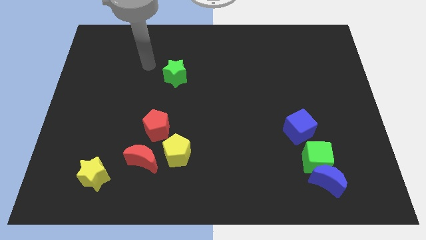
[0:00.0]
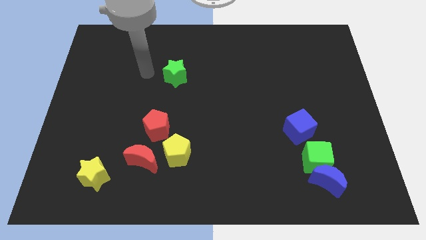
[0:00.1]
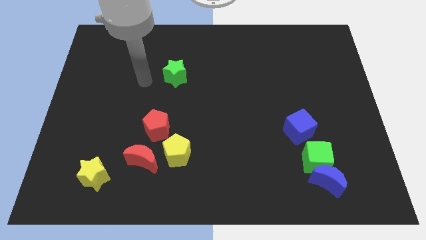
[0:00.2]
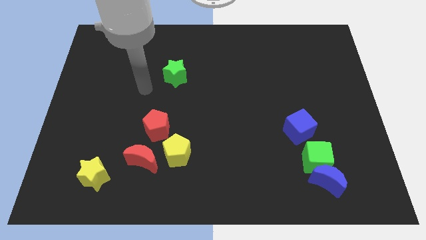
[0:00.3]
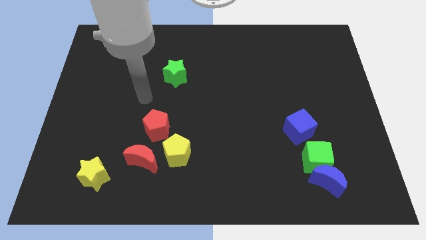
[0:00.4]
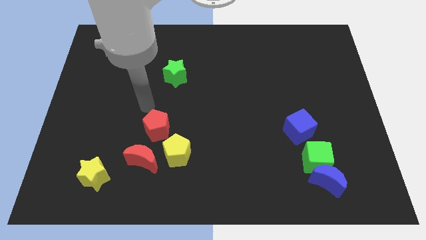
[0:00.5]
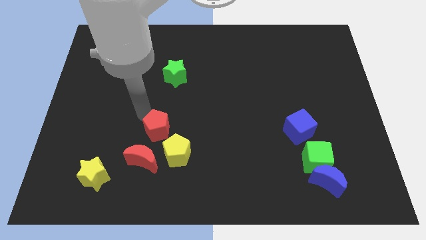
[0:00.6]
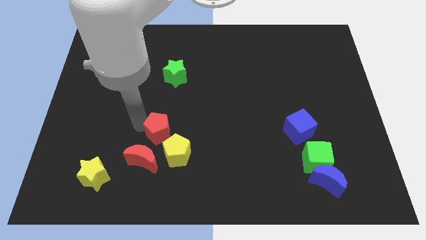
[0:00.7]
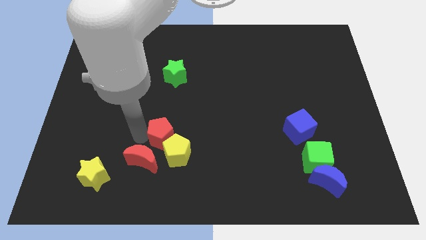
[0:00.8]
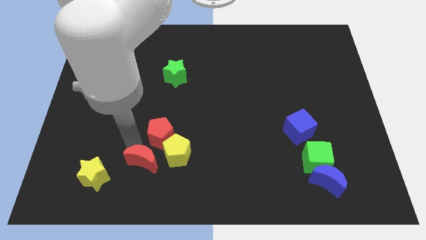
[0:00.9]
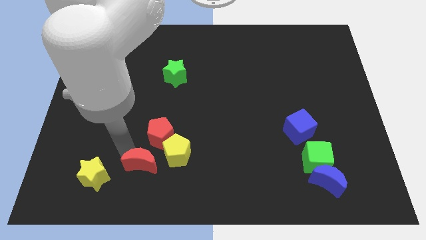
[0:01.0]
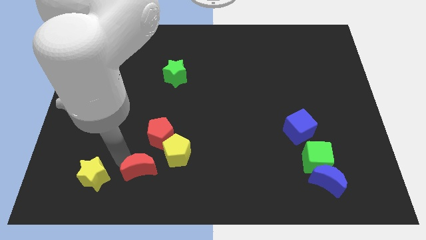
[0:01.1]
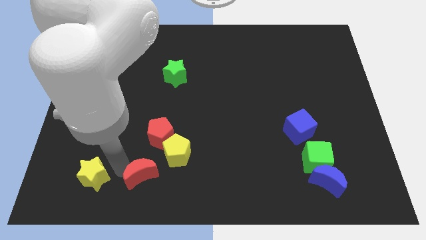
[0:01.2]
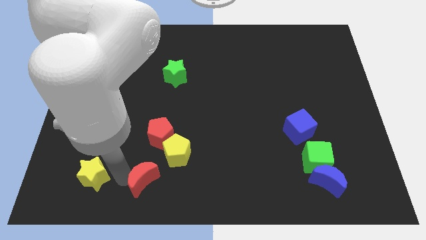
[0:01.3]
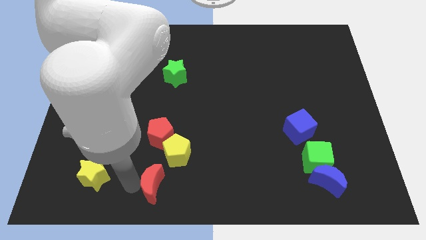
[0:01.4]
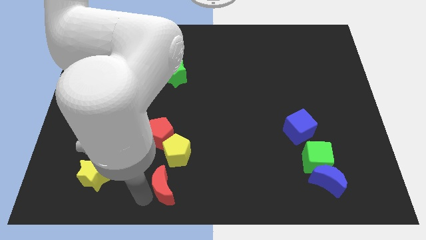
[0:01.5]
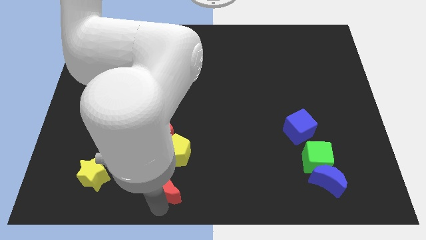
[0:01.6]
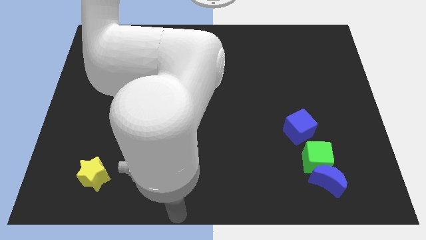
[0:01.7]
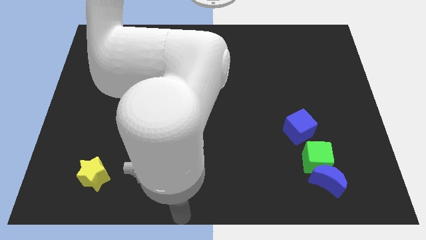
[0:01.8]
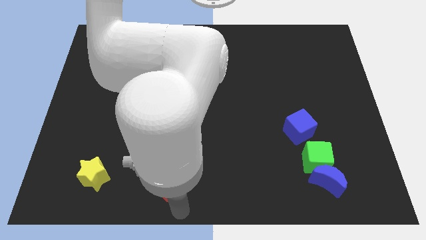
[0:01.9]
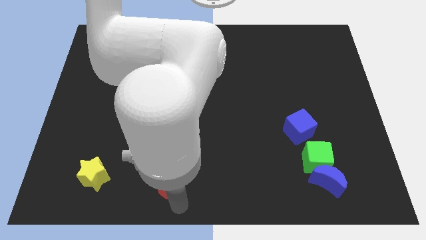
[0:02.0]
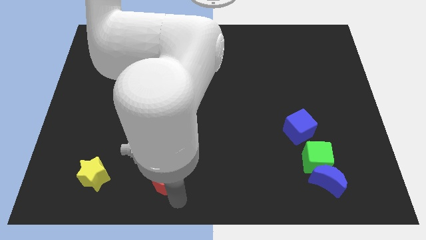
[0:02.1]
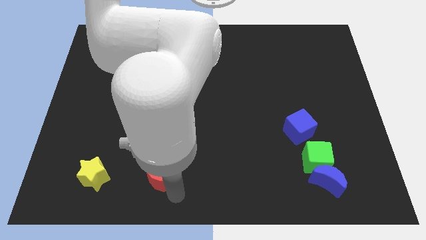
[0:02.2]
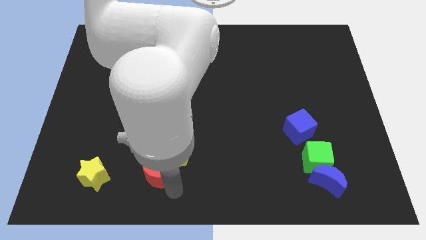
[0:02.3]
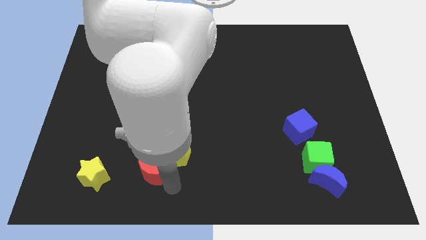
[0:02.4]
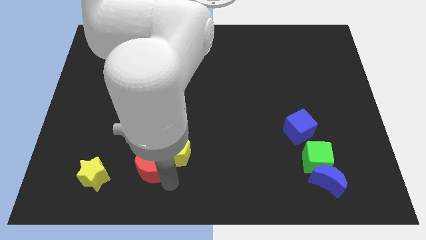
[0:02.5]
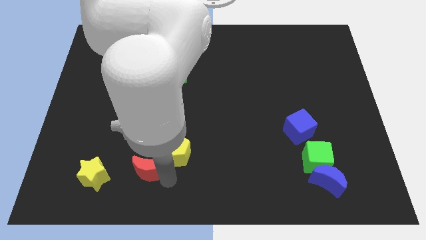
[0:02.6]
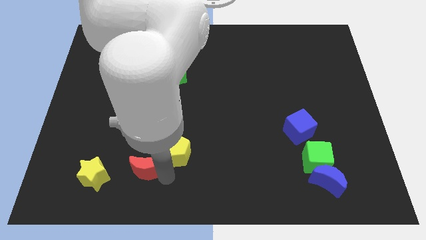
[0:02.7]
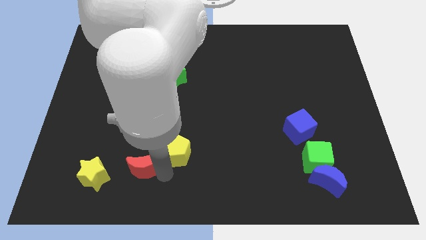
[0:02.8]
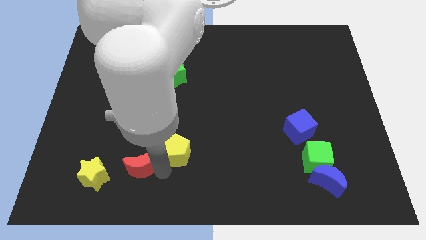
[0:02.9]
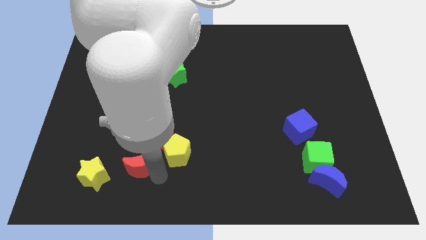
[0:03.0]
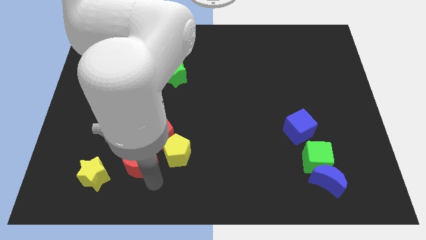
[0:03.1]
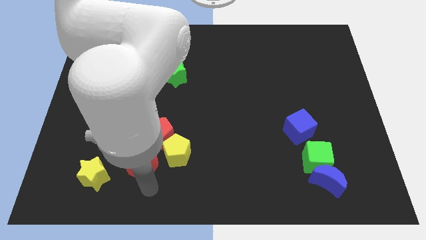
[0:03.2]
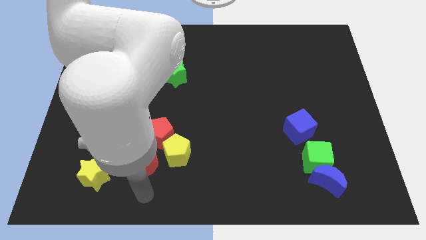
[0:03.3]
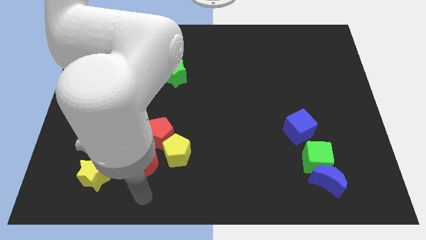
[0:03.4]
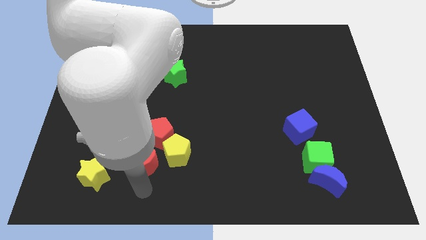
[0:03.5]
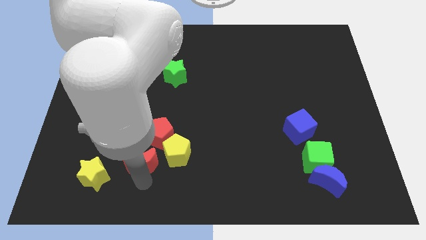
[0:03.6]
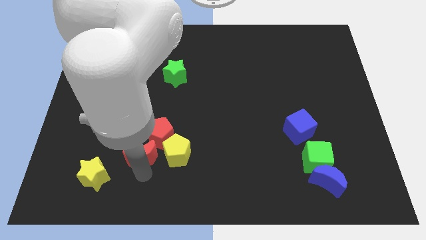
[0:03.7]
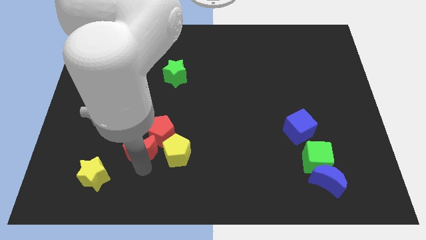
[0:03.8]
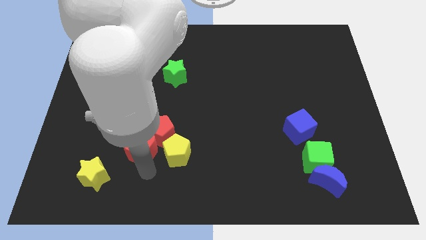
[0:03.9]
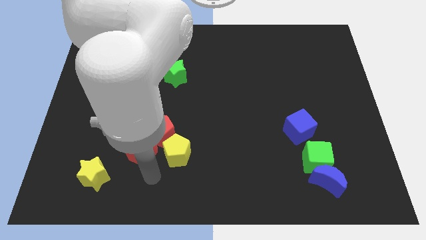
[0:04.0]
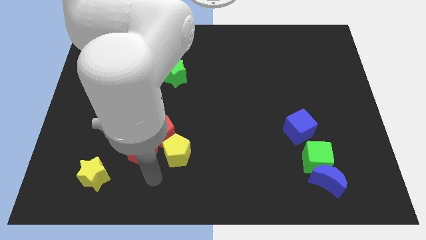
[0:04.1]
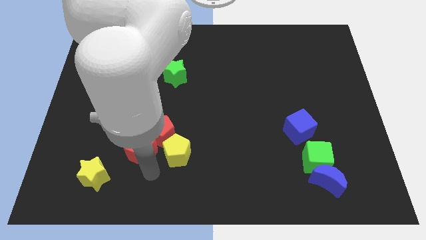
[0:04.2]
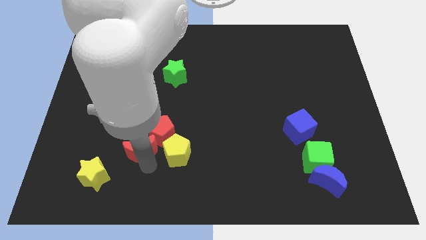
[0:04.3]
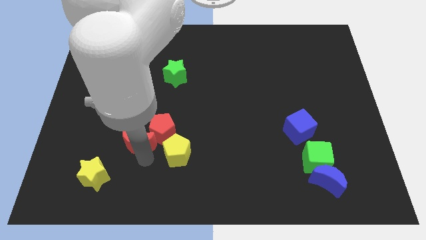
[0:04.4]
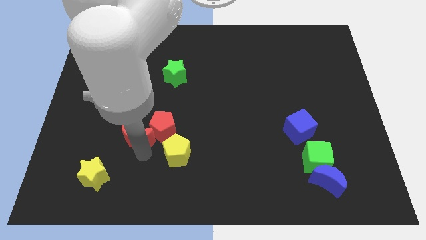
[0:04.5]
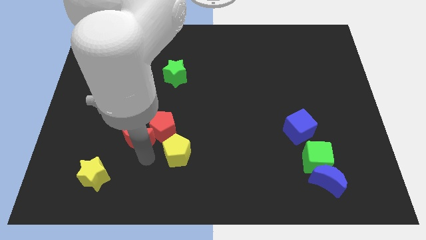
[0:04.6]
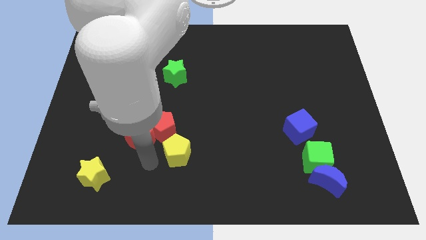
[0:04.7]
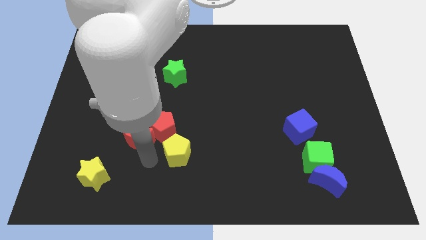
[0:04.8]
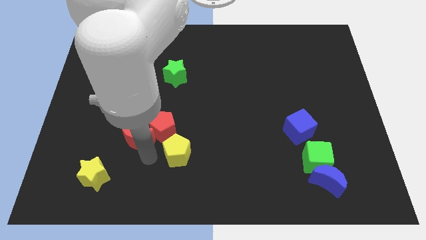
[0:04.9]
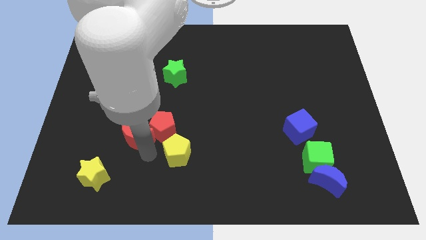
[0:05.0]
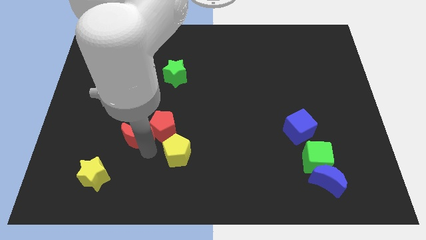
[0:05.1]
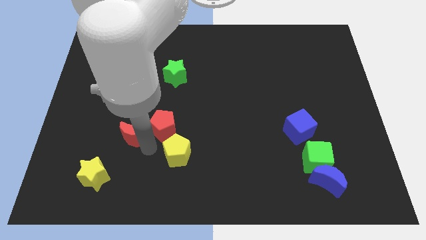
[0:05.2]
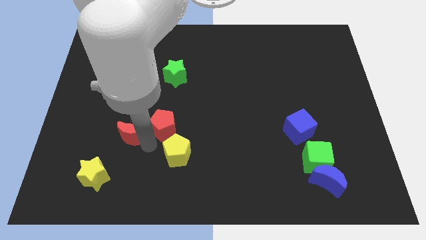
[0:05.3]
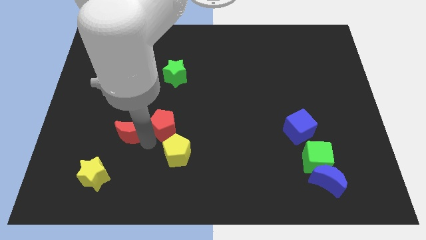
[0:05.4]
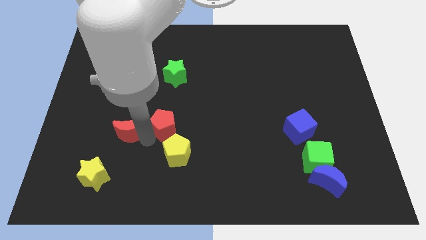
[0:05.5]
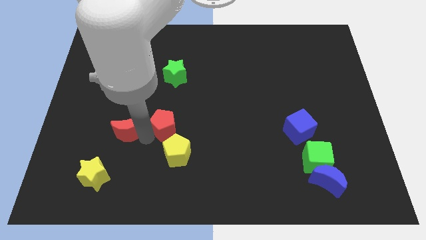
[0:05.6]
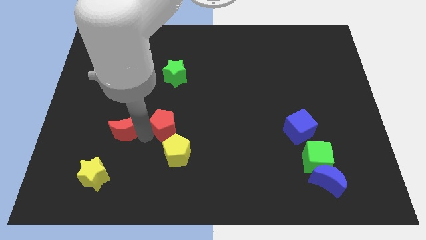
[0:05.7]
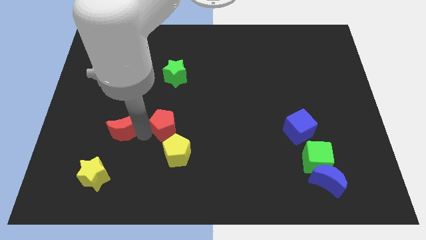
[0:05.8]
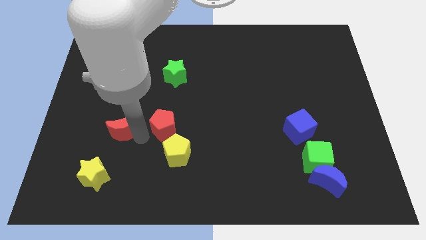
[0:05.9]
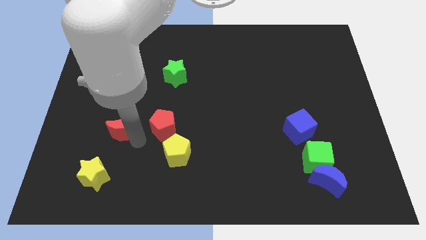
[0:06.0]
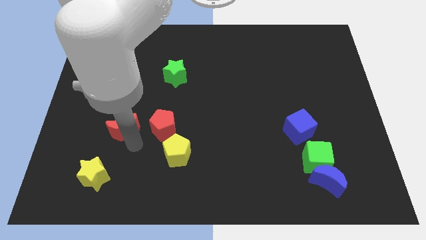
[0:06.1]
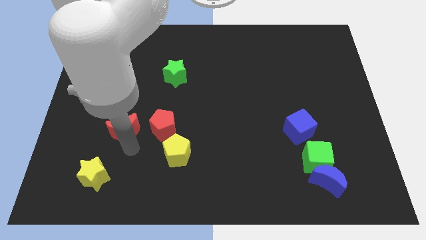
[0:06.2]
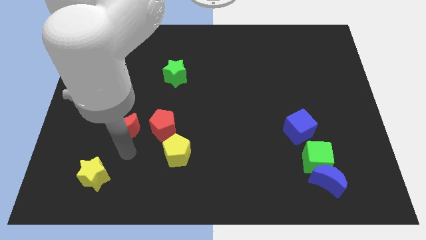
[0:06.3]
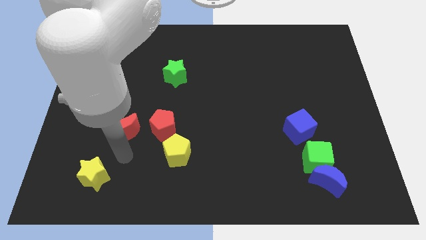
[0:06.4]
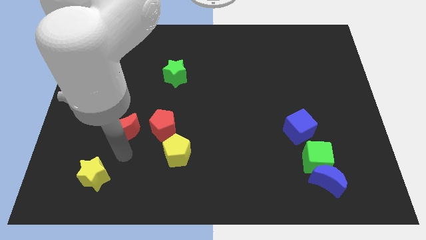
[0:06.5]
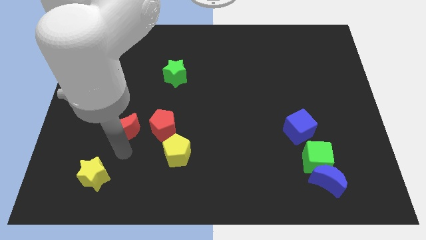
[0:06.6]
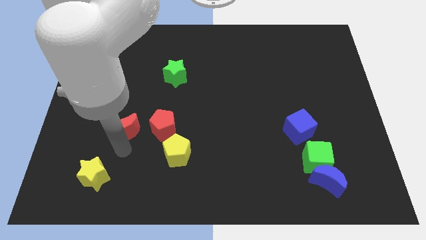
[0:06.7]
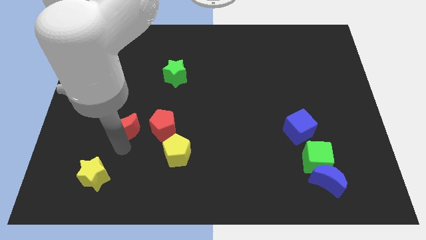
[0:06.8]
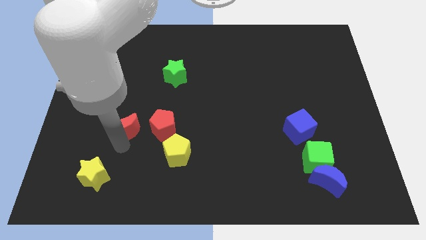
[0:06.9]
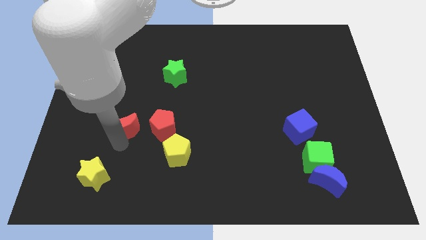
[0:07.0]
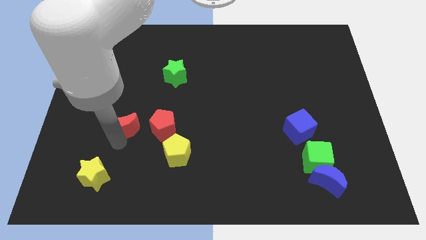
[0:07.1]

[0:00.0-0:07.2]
push the red moon up somewhat
